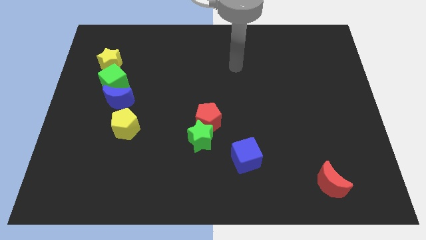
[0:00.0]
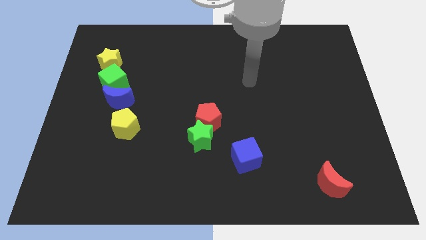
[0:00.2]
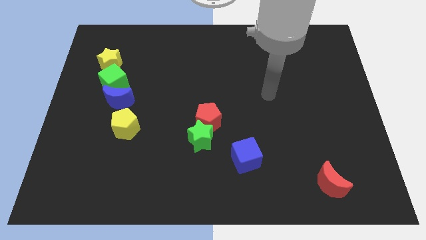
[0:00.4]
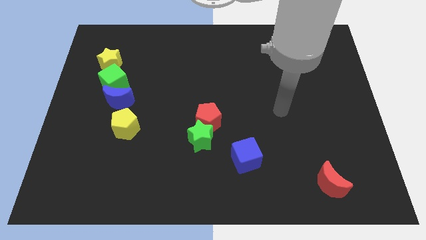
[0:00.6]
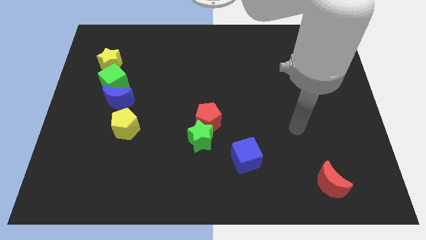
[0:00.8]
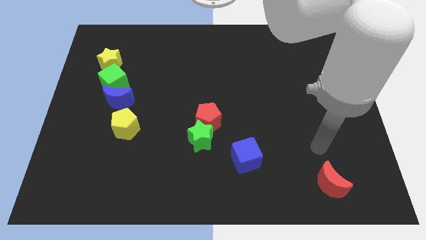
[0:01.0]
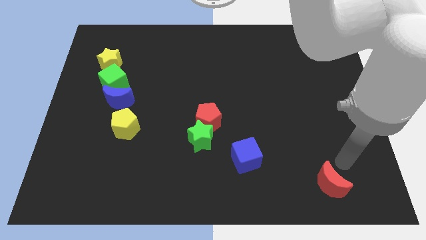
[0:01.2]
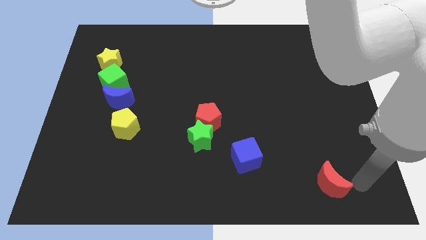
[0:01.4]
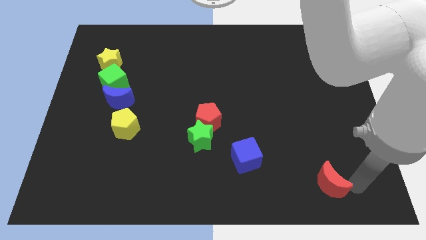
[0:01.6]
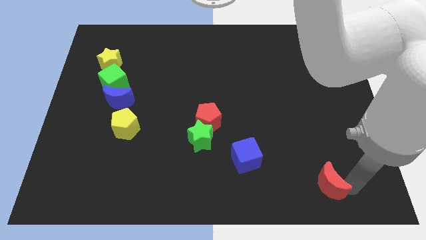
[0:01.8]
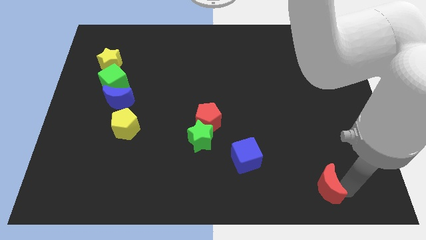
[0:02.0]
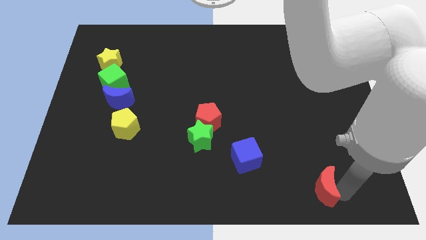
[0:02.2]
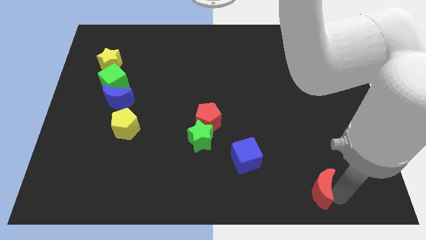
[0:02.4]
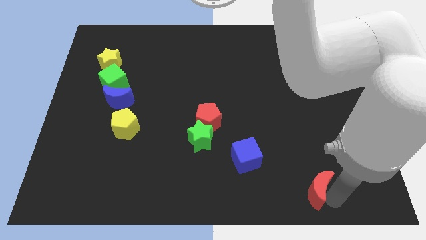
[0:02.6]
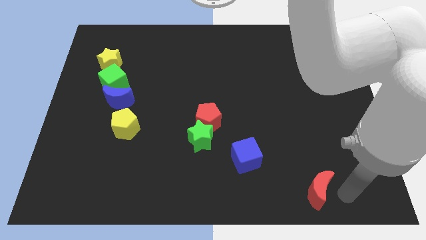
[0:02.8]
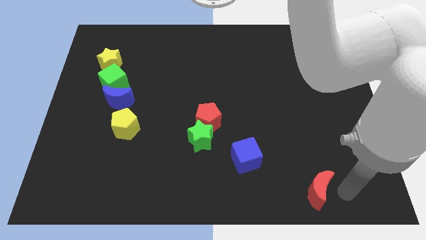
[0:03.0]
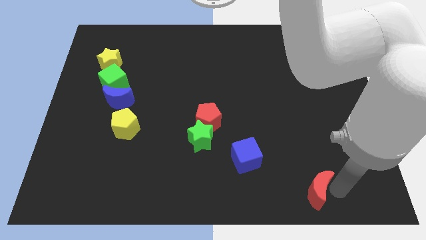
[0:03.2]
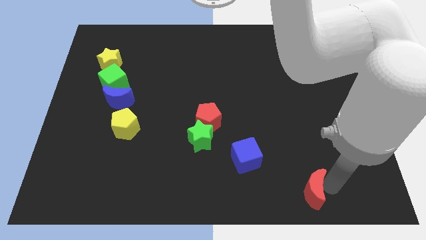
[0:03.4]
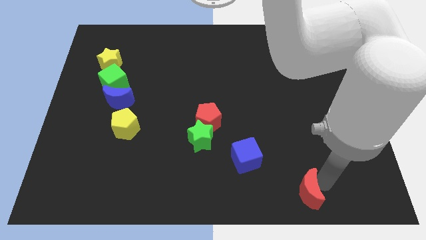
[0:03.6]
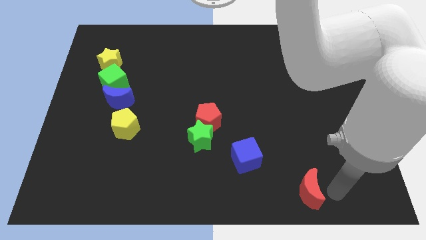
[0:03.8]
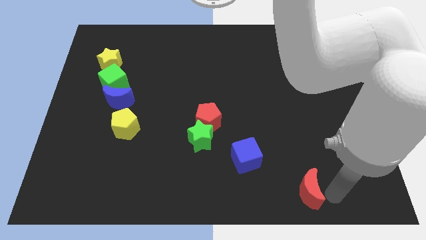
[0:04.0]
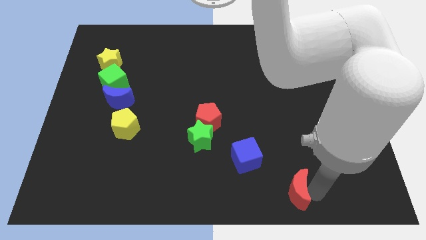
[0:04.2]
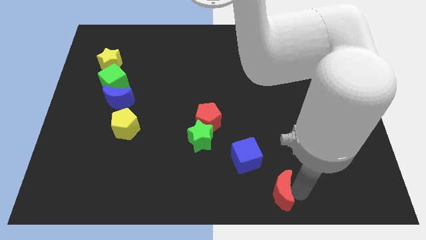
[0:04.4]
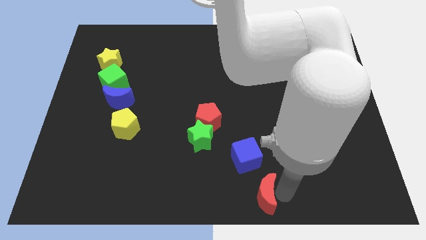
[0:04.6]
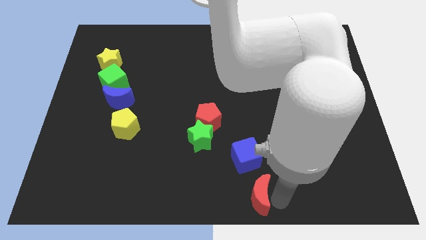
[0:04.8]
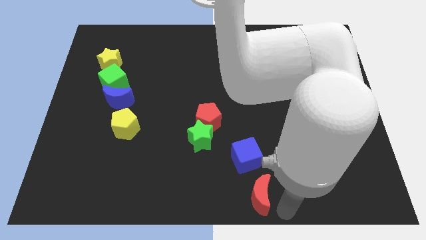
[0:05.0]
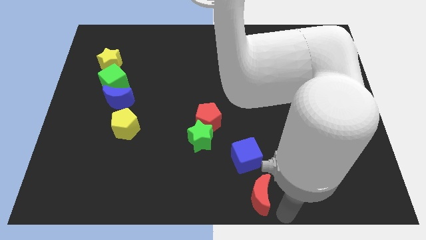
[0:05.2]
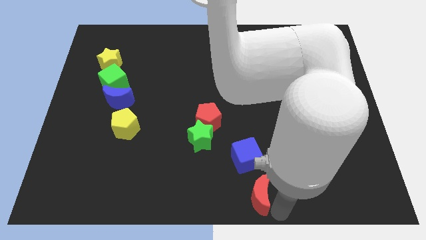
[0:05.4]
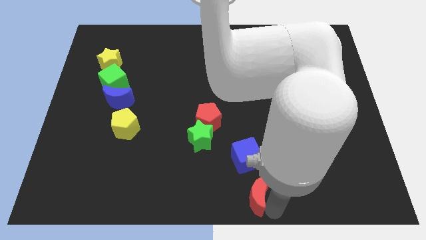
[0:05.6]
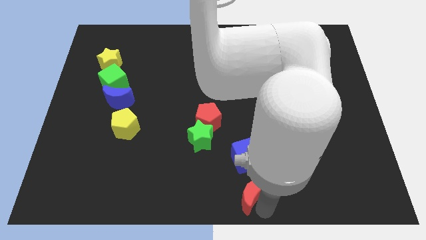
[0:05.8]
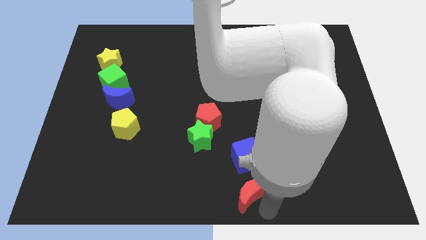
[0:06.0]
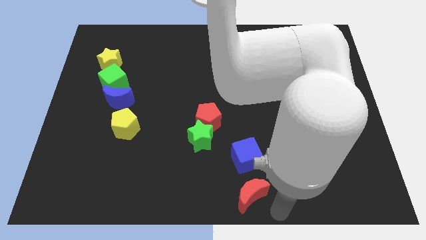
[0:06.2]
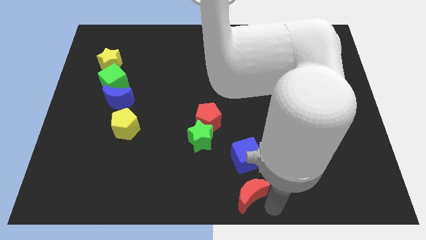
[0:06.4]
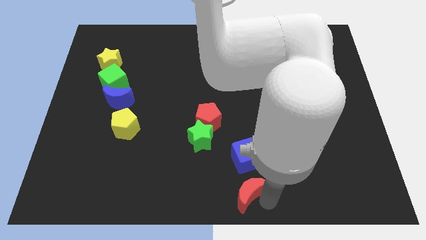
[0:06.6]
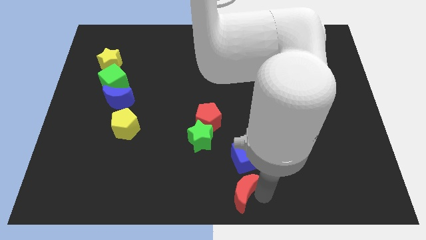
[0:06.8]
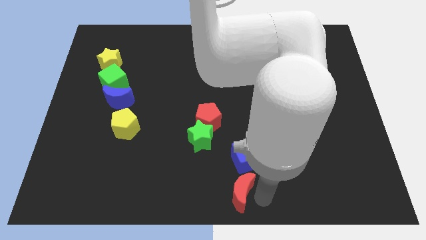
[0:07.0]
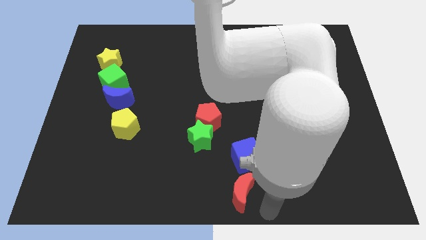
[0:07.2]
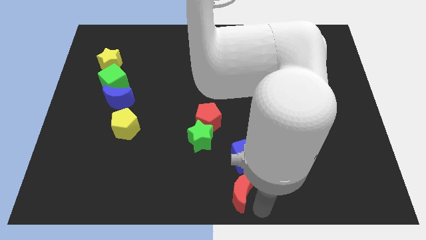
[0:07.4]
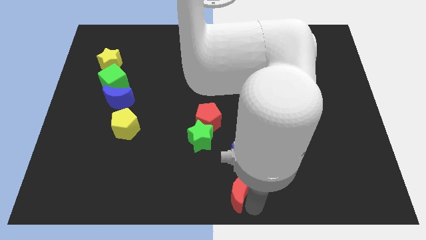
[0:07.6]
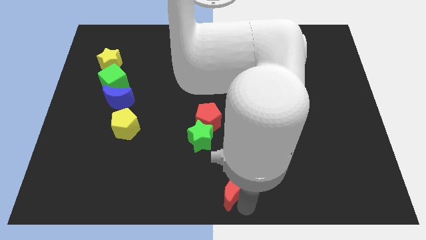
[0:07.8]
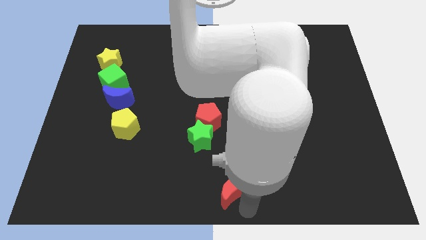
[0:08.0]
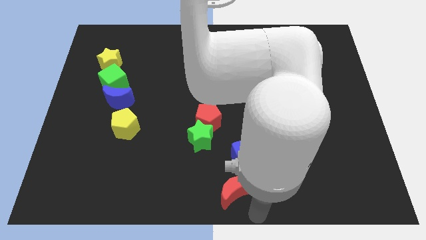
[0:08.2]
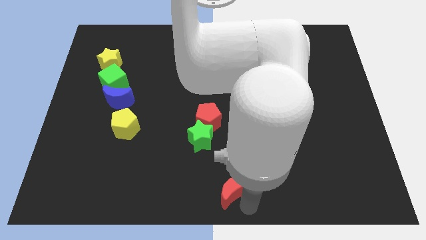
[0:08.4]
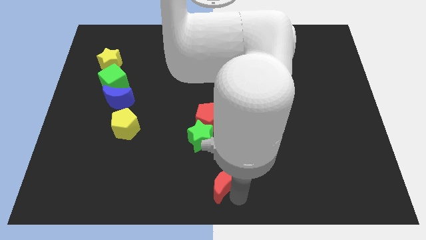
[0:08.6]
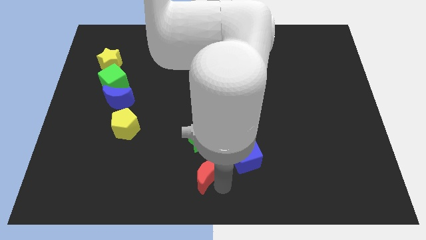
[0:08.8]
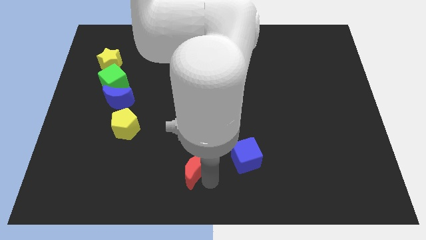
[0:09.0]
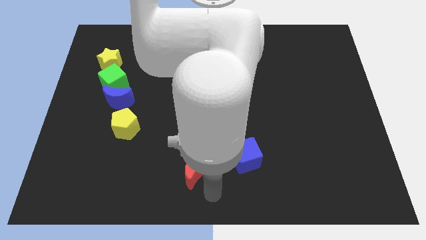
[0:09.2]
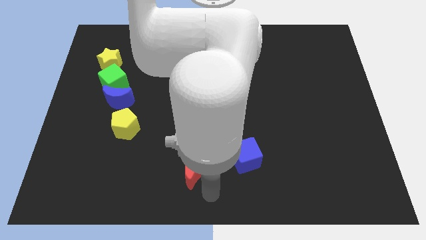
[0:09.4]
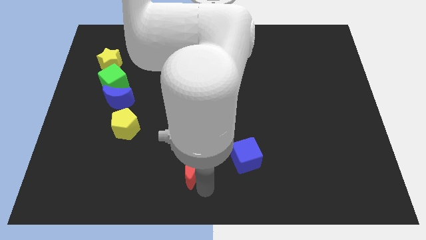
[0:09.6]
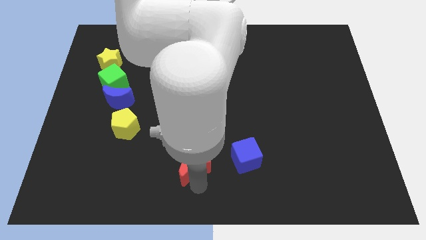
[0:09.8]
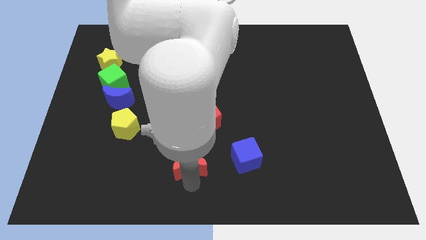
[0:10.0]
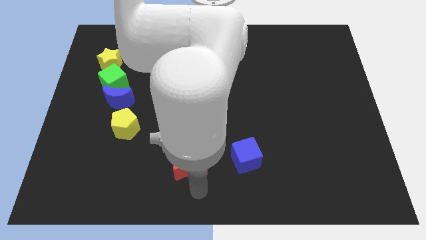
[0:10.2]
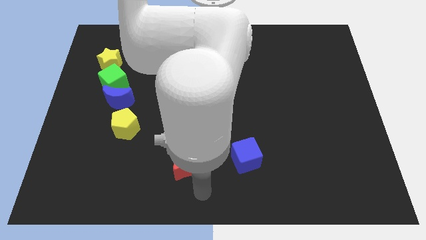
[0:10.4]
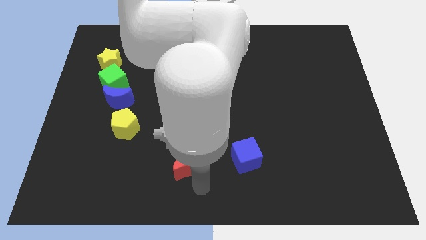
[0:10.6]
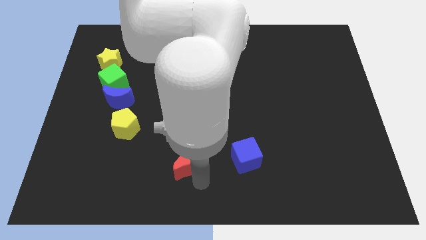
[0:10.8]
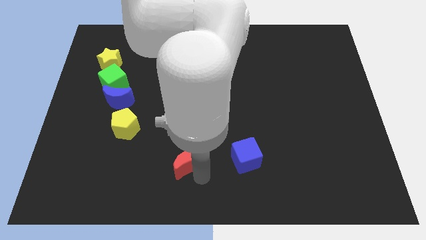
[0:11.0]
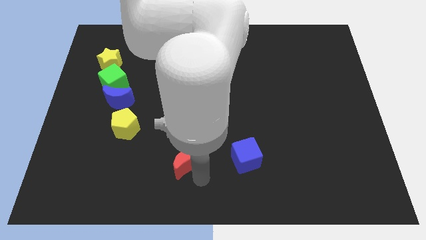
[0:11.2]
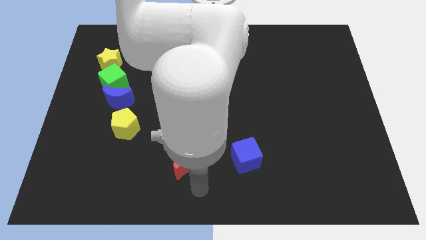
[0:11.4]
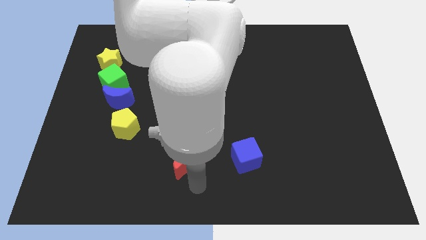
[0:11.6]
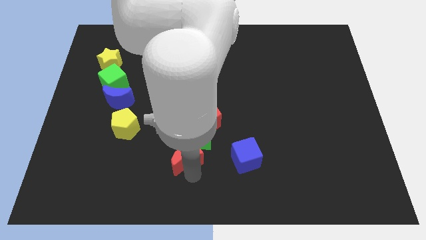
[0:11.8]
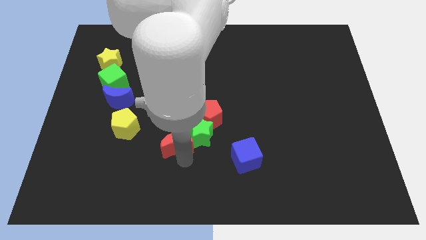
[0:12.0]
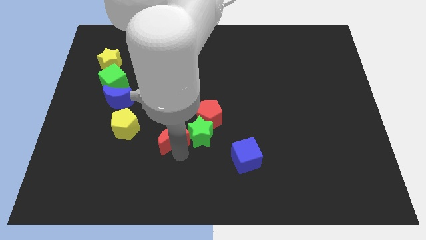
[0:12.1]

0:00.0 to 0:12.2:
slide the red moon just right of the yellow pentagon

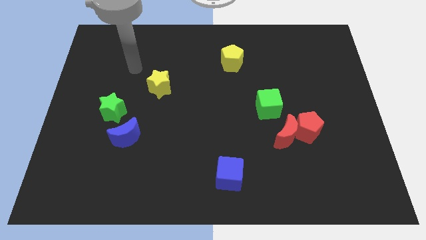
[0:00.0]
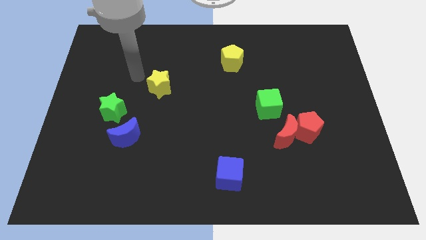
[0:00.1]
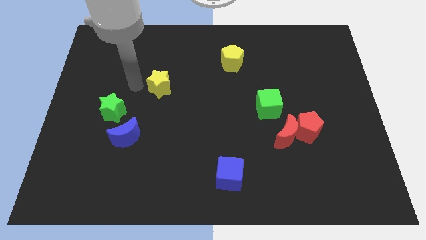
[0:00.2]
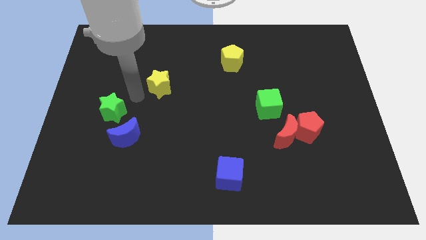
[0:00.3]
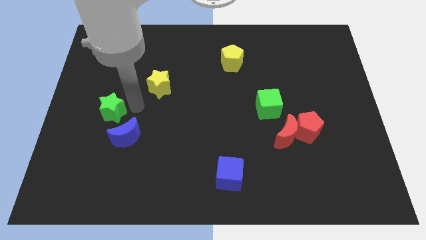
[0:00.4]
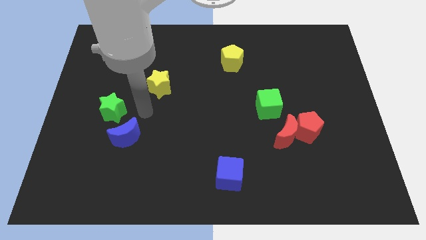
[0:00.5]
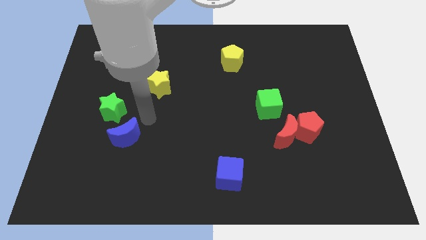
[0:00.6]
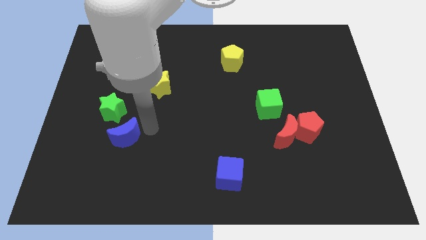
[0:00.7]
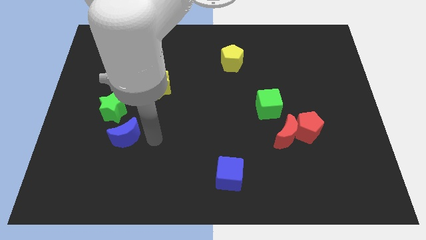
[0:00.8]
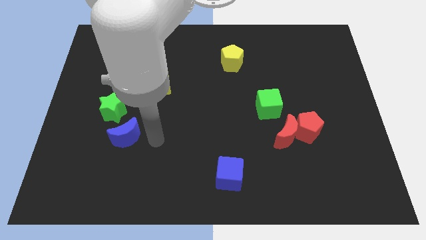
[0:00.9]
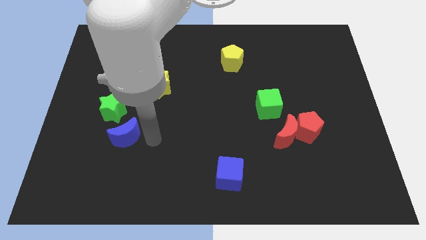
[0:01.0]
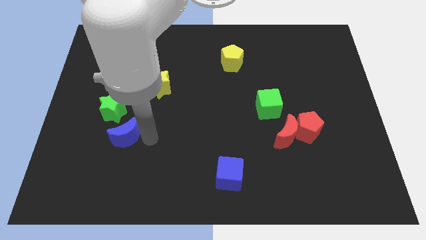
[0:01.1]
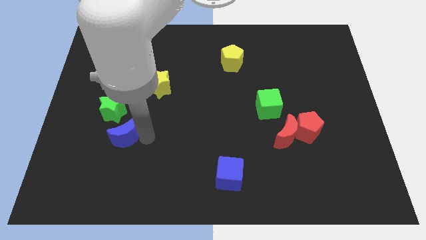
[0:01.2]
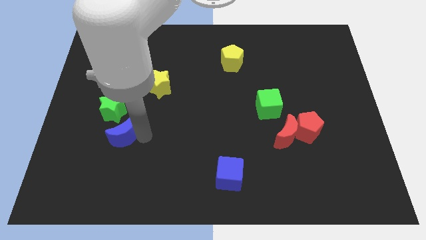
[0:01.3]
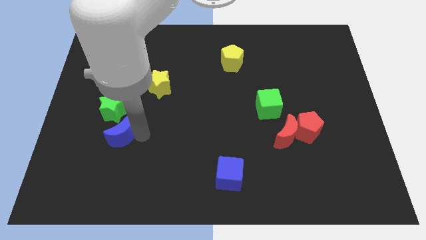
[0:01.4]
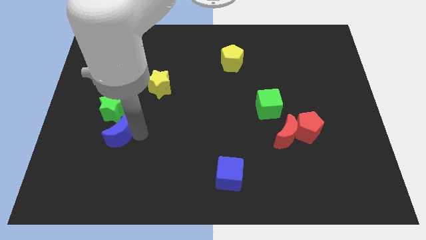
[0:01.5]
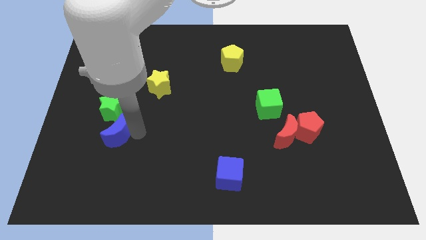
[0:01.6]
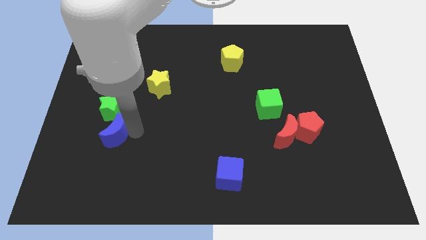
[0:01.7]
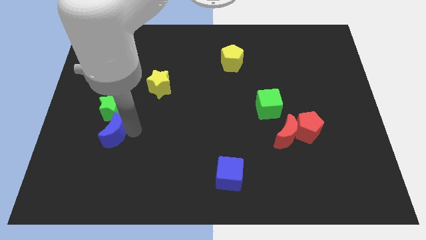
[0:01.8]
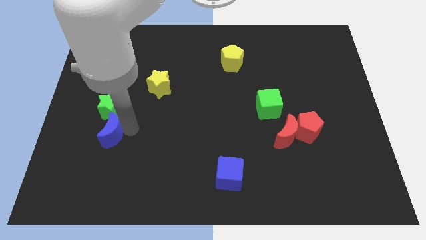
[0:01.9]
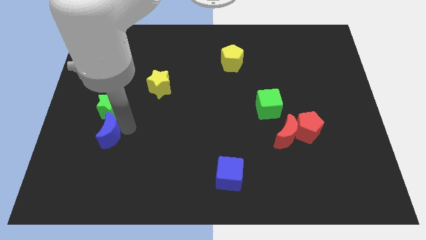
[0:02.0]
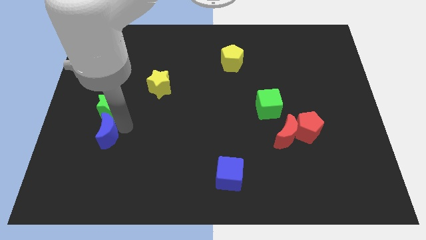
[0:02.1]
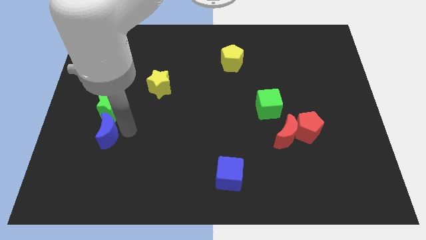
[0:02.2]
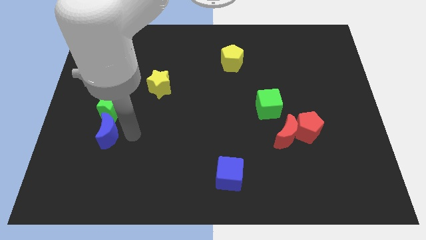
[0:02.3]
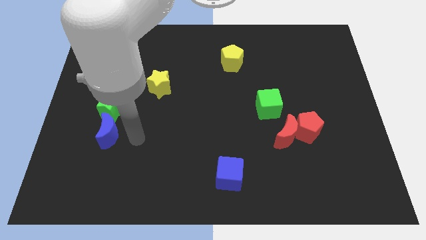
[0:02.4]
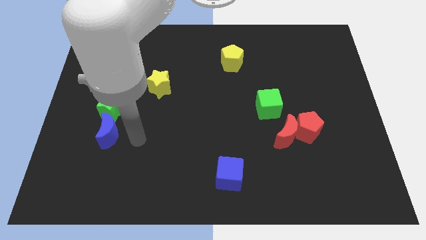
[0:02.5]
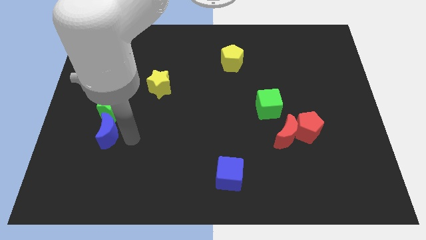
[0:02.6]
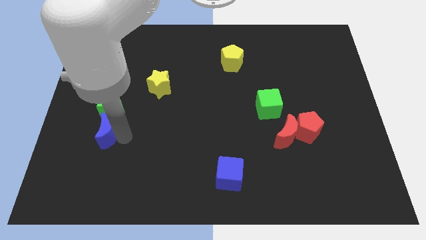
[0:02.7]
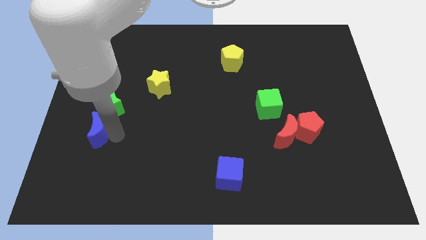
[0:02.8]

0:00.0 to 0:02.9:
slide the blue moon to the bottom left side of the green star
